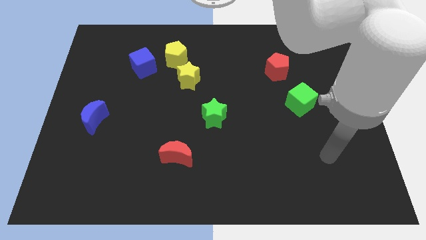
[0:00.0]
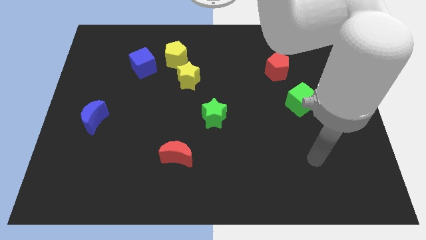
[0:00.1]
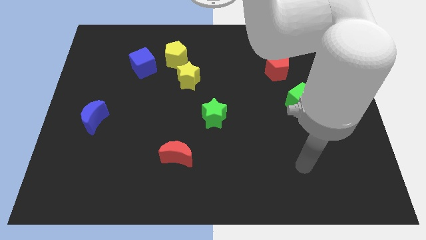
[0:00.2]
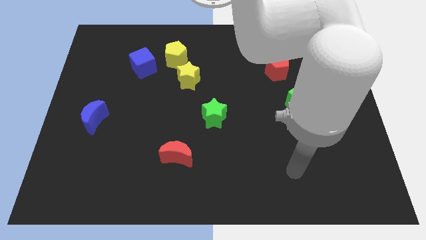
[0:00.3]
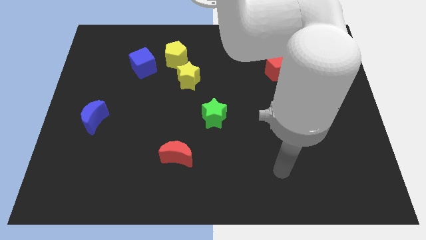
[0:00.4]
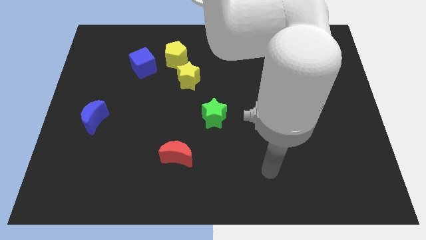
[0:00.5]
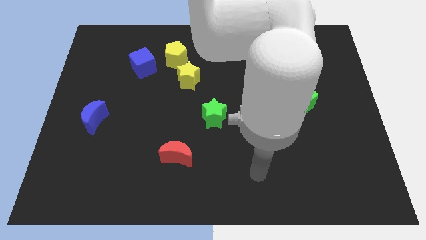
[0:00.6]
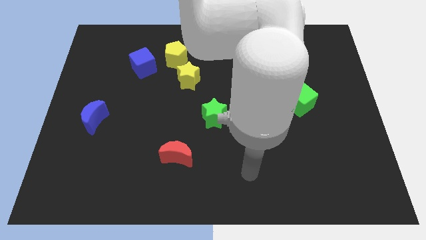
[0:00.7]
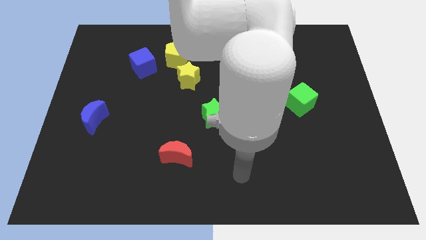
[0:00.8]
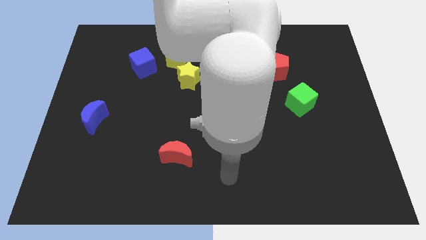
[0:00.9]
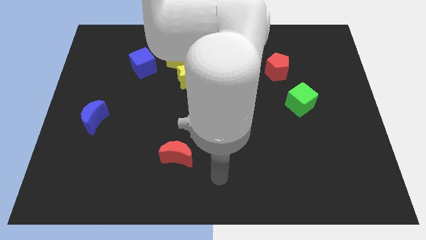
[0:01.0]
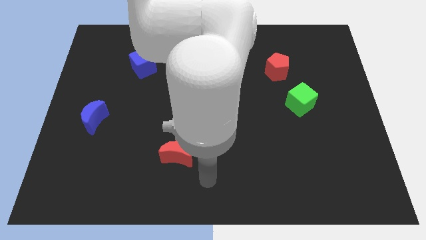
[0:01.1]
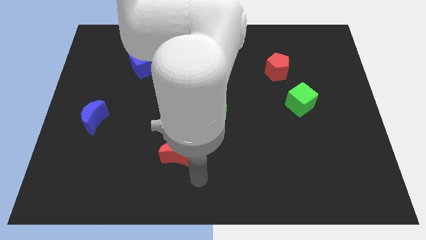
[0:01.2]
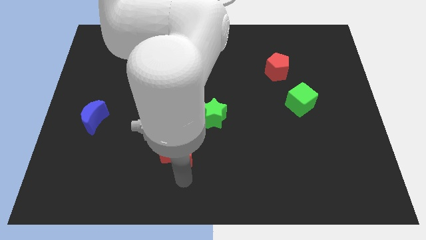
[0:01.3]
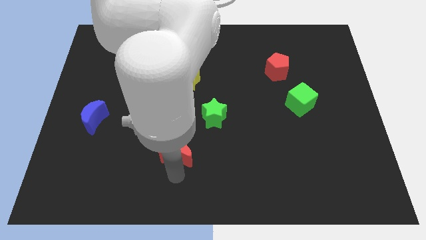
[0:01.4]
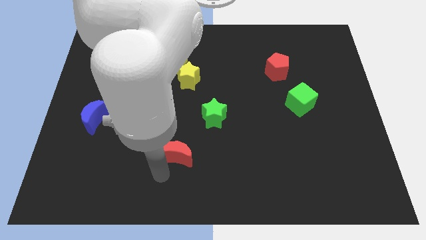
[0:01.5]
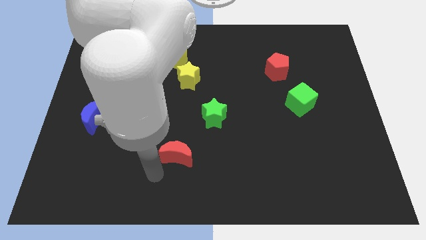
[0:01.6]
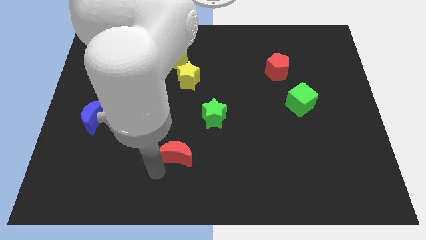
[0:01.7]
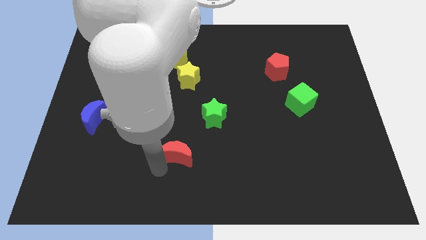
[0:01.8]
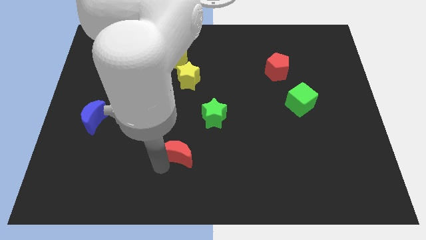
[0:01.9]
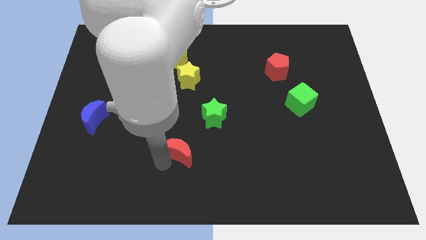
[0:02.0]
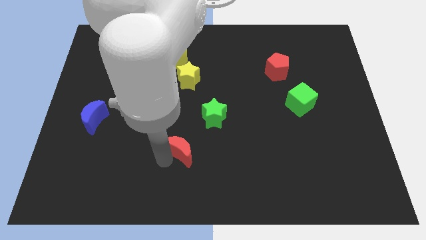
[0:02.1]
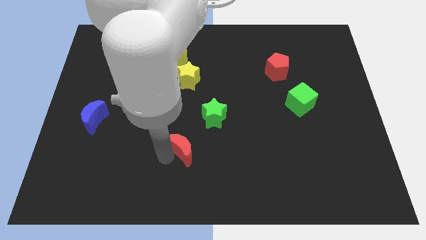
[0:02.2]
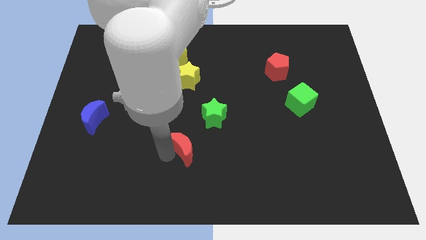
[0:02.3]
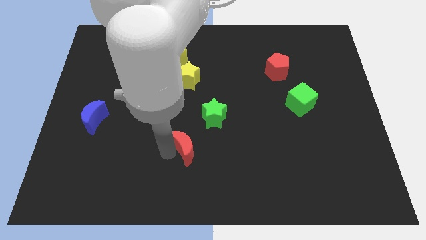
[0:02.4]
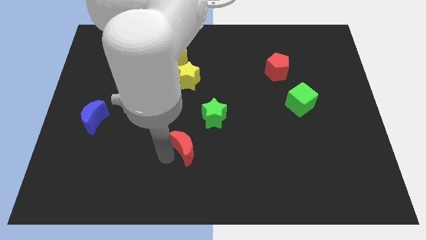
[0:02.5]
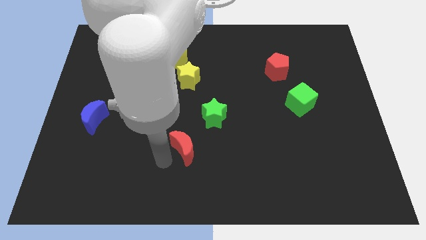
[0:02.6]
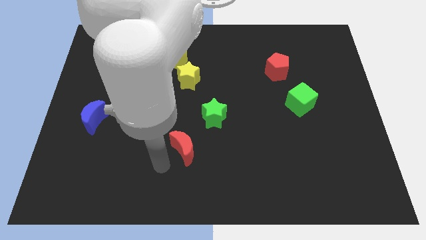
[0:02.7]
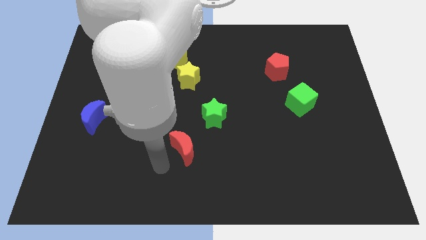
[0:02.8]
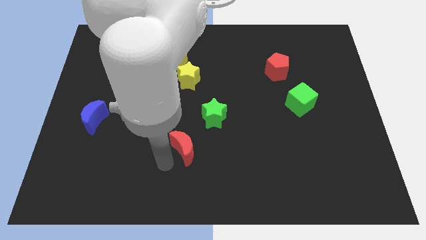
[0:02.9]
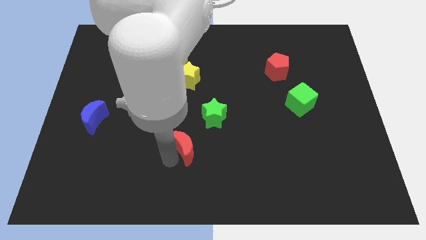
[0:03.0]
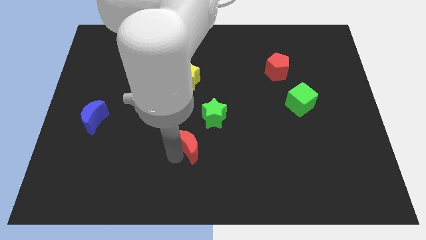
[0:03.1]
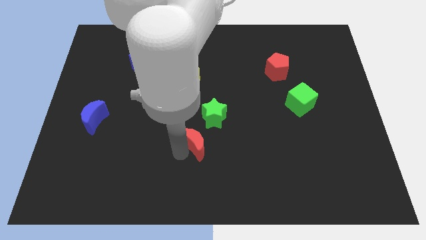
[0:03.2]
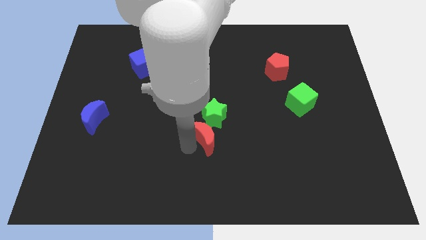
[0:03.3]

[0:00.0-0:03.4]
slightly push the red moon diagonally upwards and right

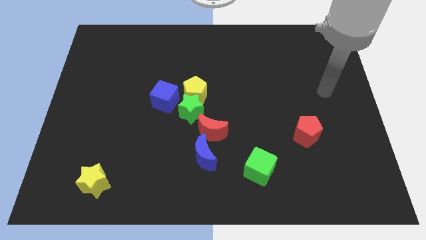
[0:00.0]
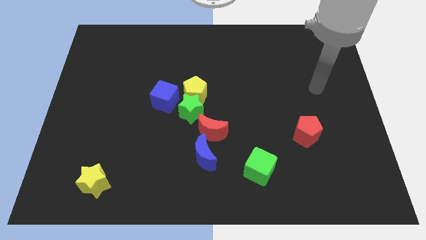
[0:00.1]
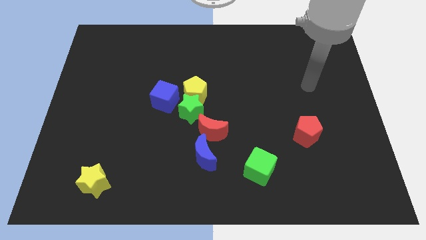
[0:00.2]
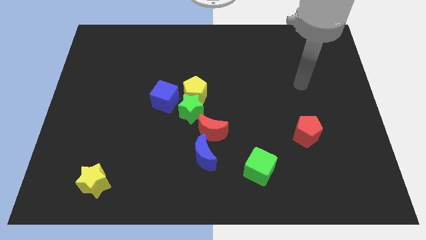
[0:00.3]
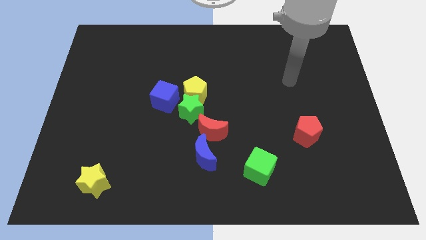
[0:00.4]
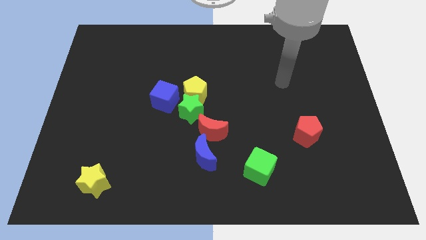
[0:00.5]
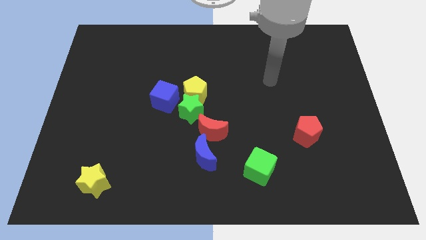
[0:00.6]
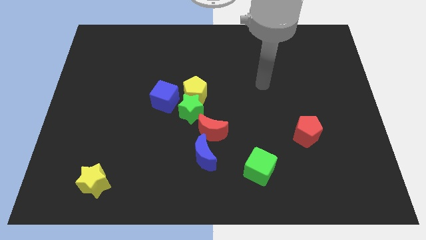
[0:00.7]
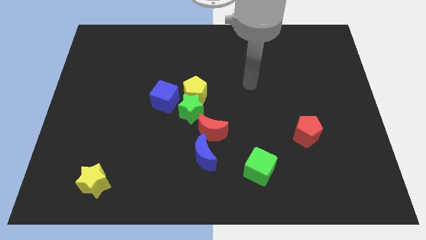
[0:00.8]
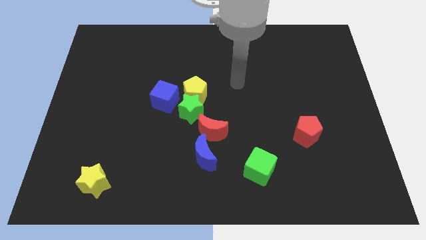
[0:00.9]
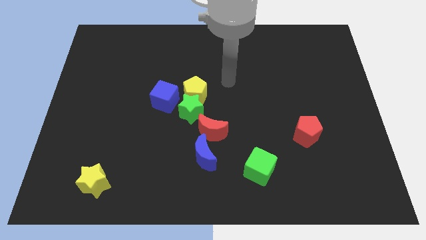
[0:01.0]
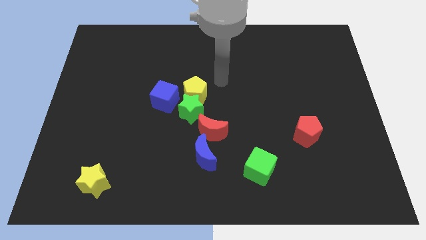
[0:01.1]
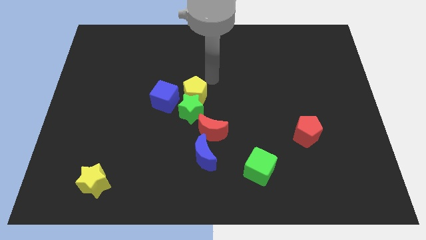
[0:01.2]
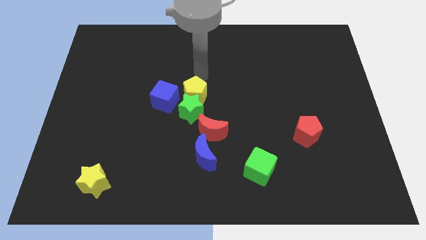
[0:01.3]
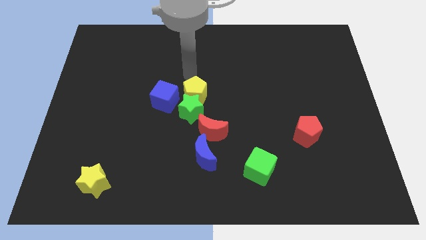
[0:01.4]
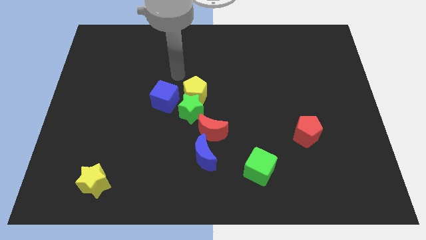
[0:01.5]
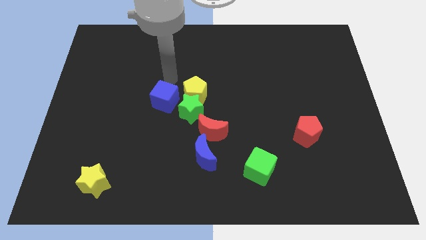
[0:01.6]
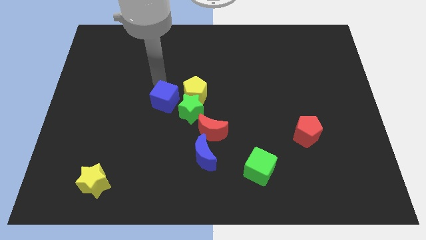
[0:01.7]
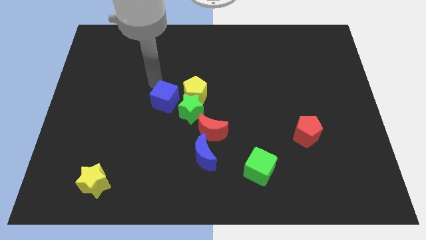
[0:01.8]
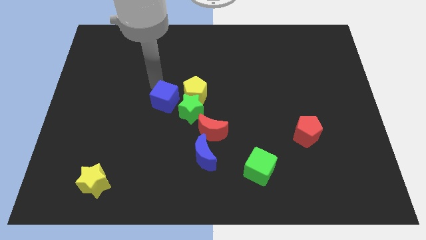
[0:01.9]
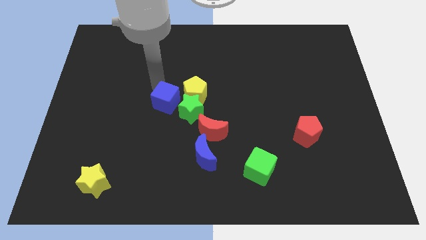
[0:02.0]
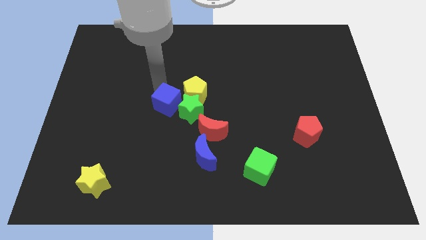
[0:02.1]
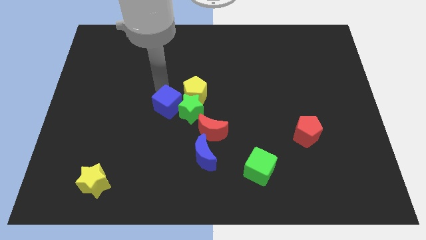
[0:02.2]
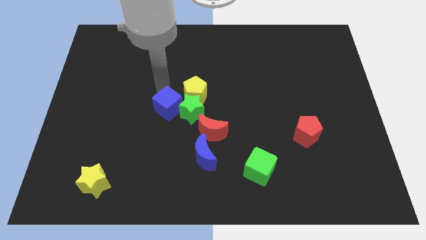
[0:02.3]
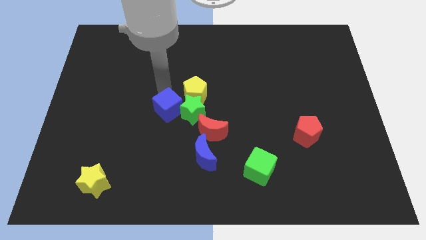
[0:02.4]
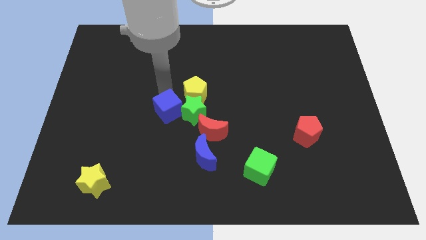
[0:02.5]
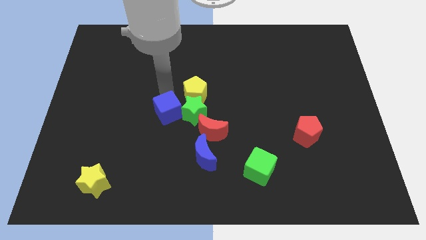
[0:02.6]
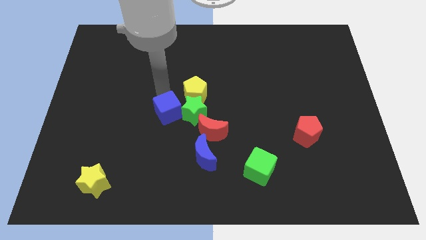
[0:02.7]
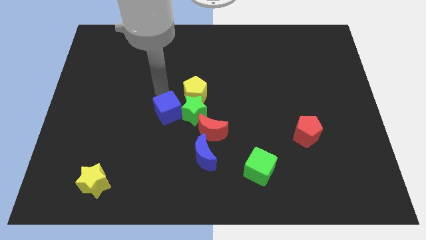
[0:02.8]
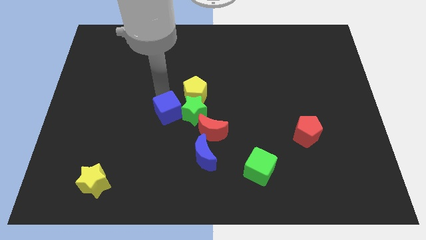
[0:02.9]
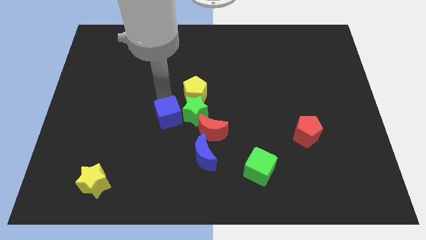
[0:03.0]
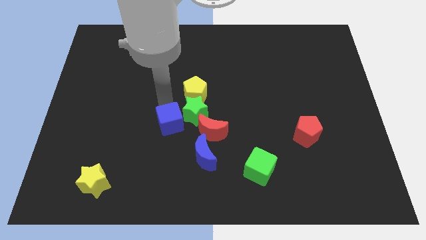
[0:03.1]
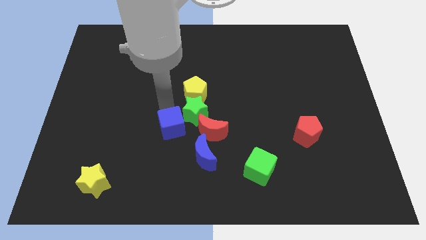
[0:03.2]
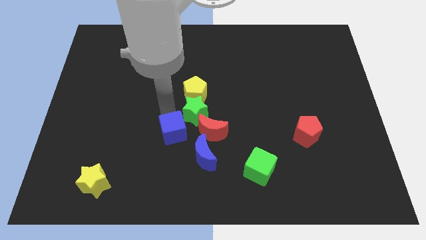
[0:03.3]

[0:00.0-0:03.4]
push the blue cube somewhat down and right diagonally

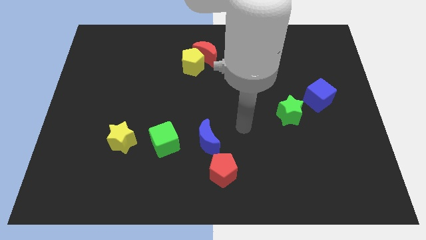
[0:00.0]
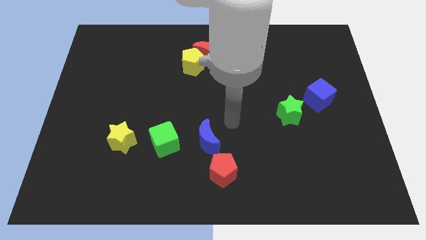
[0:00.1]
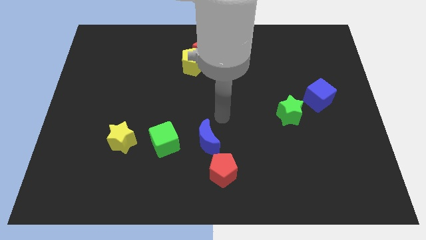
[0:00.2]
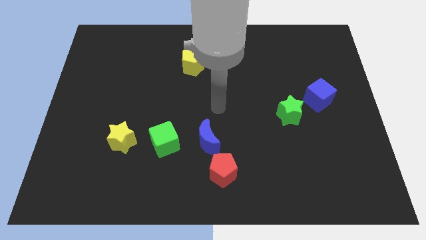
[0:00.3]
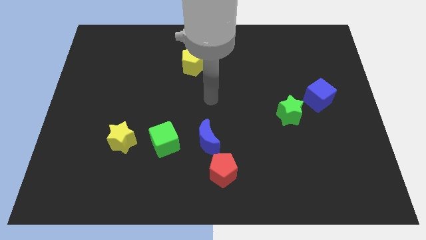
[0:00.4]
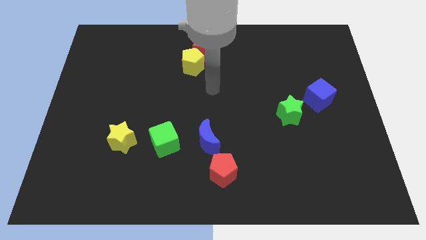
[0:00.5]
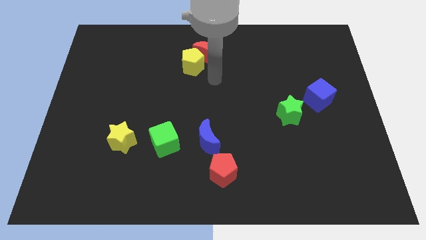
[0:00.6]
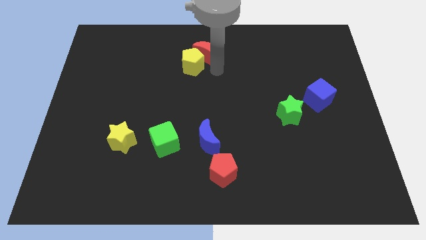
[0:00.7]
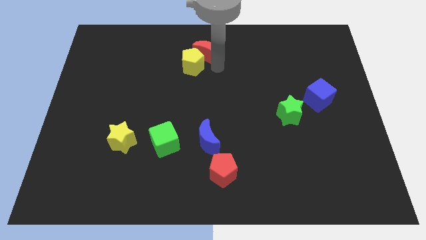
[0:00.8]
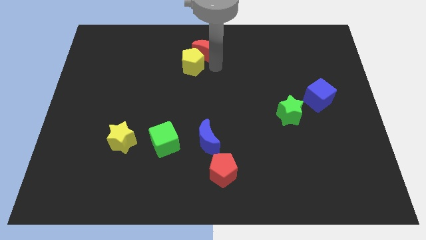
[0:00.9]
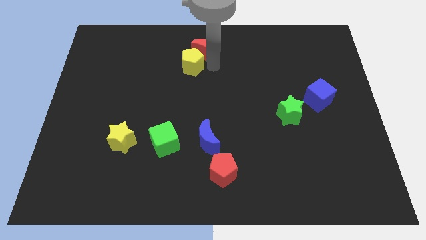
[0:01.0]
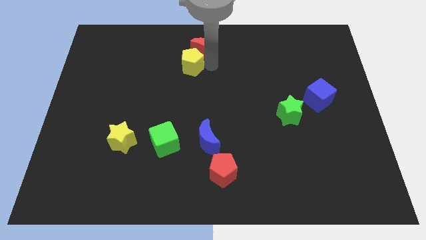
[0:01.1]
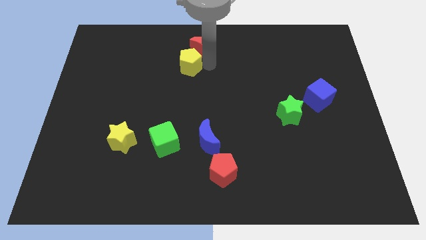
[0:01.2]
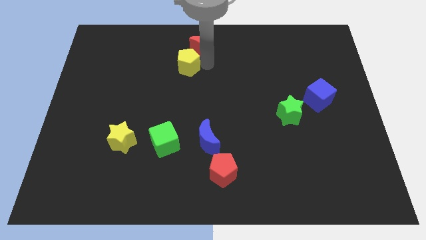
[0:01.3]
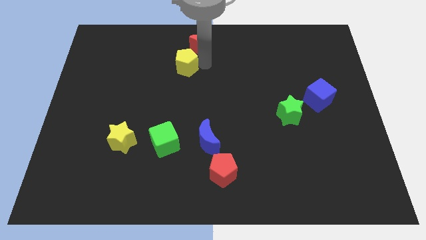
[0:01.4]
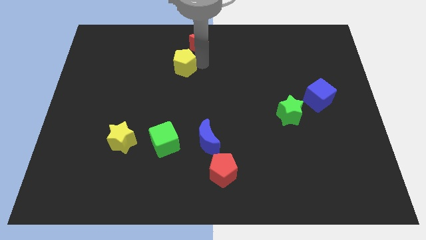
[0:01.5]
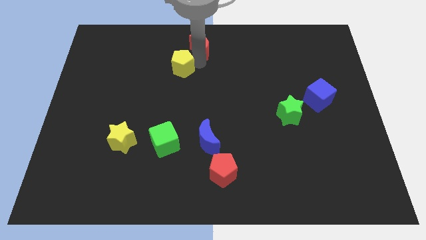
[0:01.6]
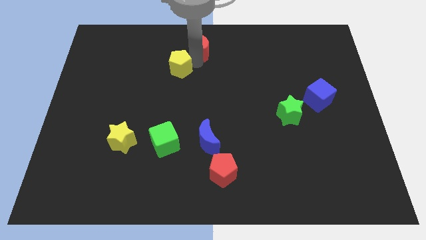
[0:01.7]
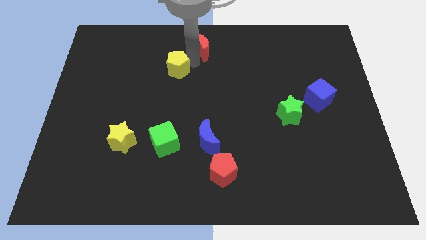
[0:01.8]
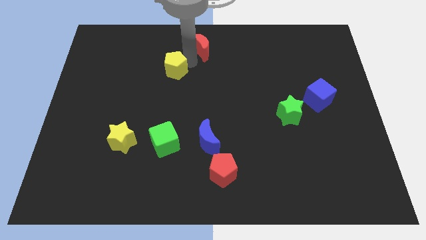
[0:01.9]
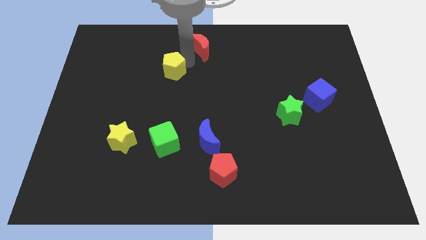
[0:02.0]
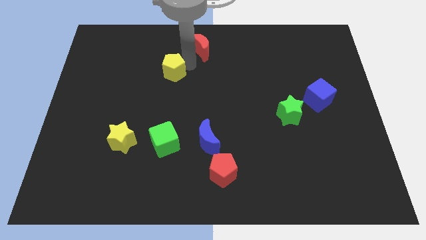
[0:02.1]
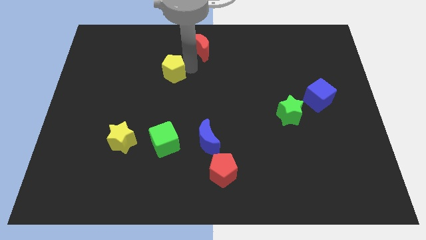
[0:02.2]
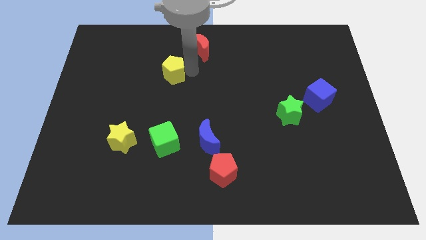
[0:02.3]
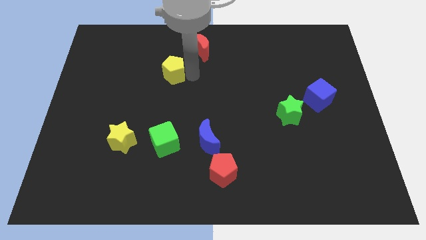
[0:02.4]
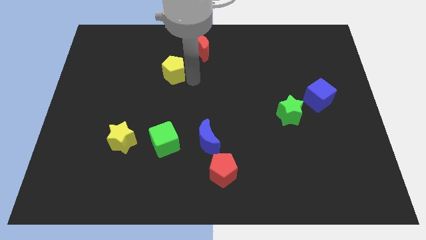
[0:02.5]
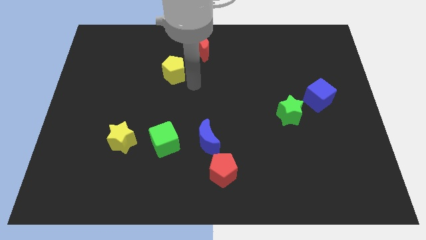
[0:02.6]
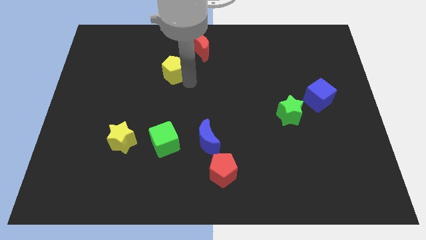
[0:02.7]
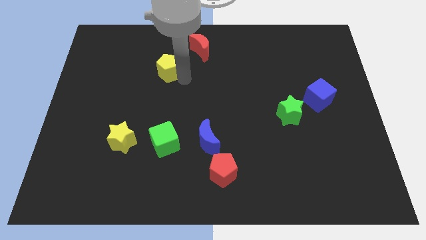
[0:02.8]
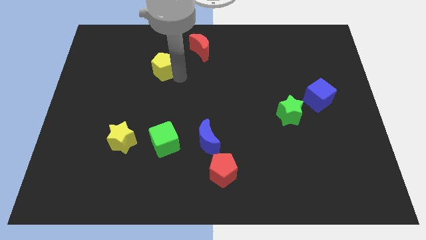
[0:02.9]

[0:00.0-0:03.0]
slightly move the yellow pentagon left
